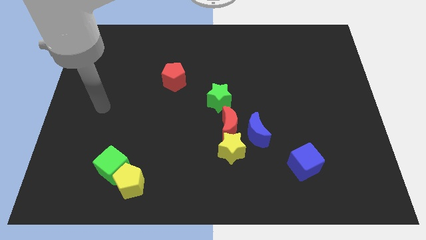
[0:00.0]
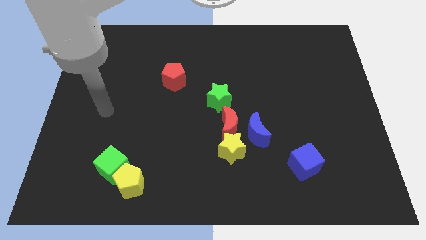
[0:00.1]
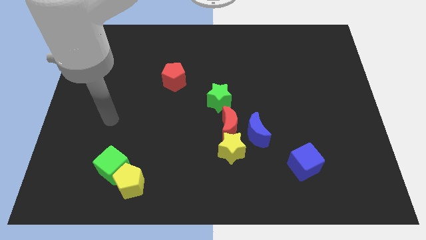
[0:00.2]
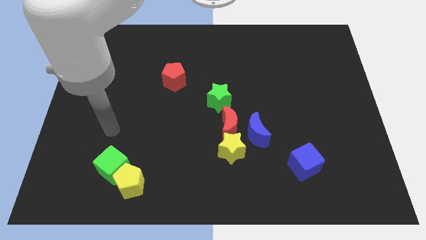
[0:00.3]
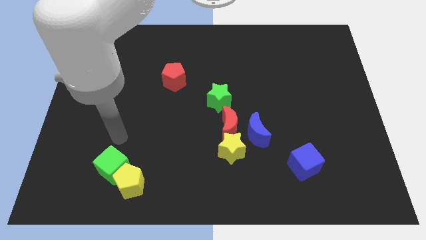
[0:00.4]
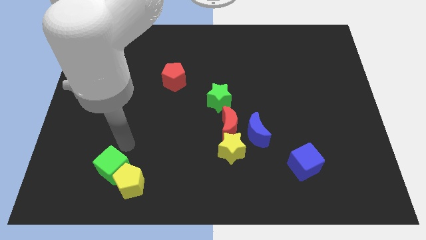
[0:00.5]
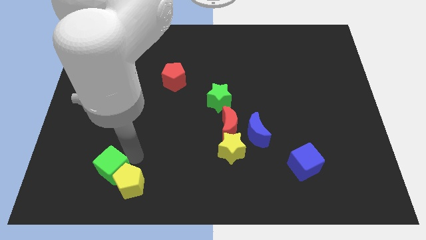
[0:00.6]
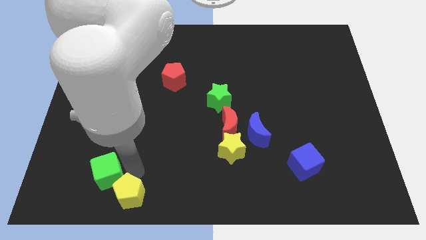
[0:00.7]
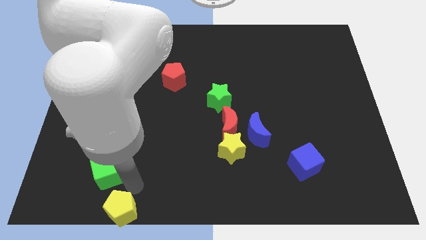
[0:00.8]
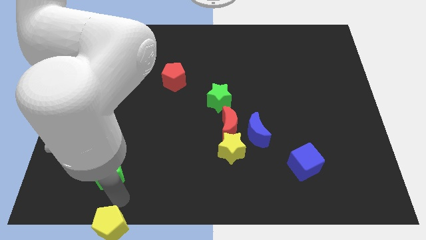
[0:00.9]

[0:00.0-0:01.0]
move the green cube away from the yellow pentagon

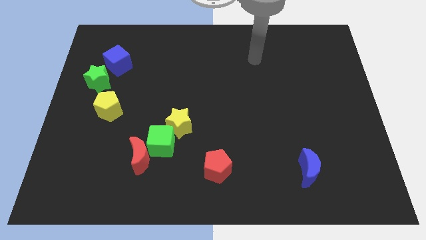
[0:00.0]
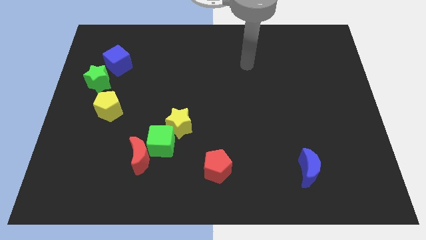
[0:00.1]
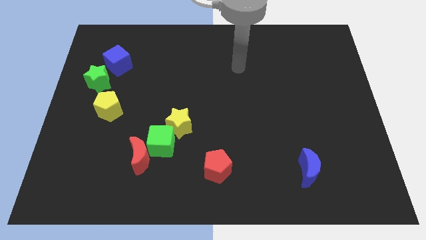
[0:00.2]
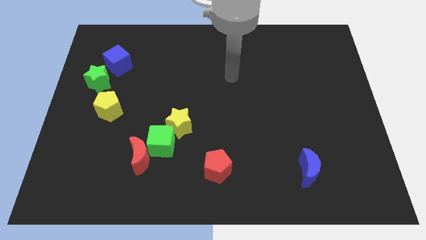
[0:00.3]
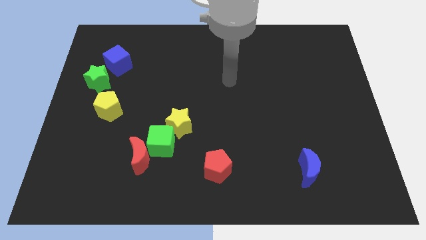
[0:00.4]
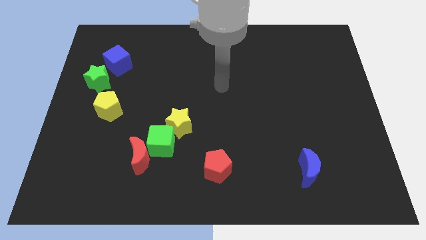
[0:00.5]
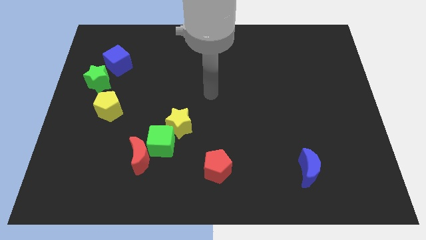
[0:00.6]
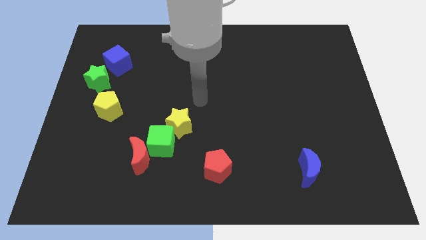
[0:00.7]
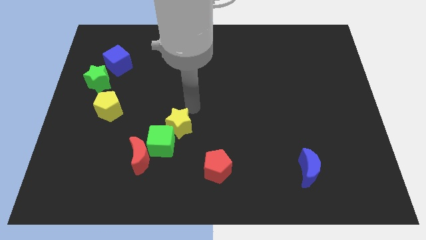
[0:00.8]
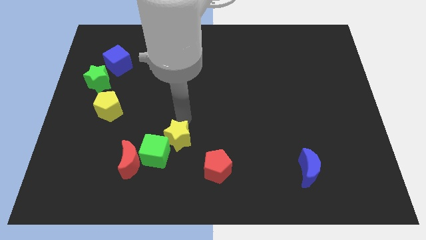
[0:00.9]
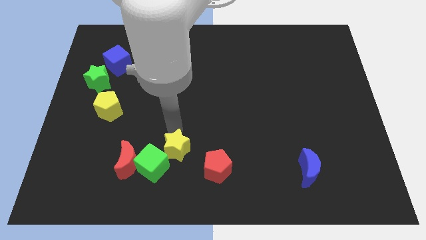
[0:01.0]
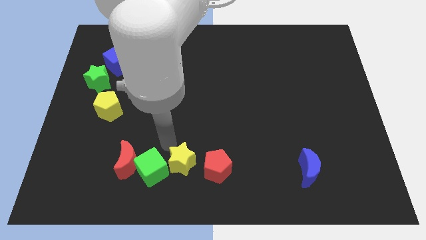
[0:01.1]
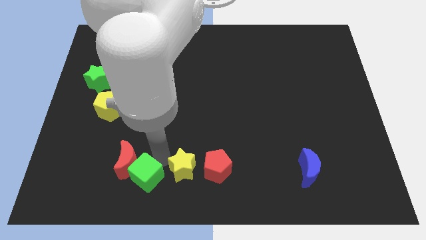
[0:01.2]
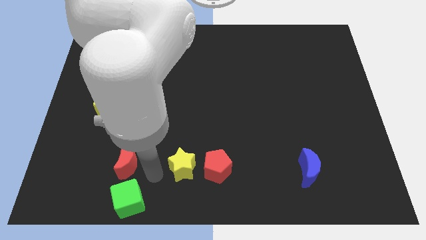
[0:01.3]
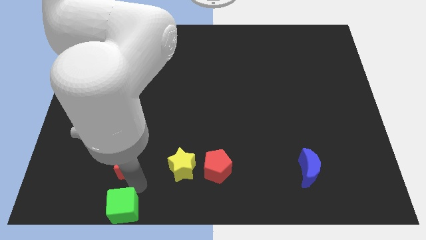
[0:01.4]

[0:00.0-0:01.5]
pull the red moon apart from the green cube

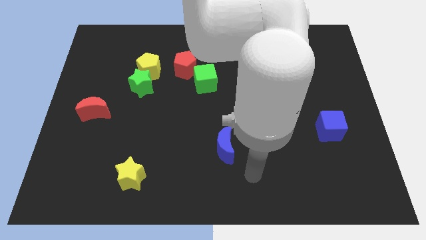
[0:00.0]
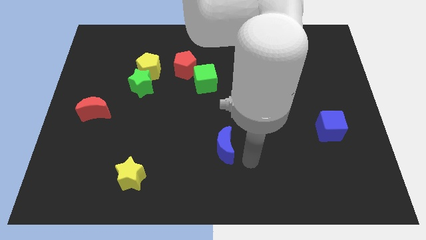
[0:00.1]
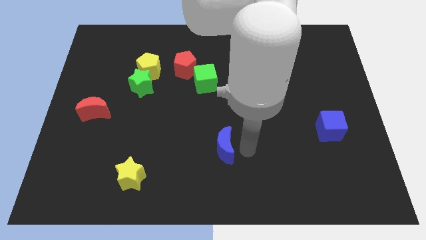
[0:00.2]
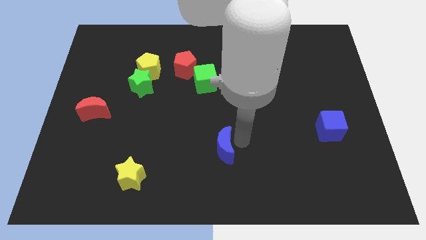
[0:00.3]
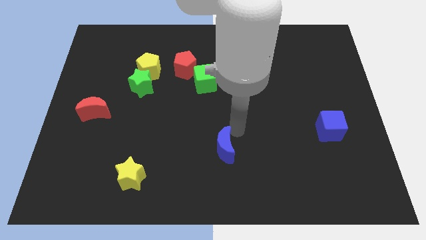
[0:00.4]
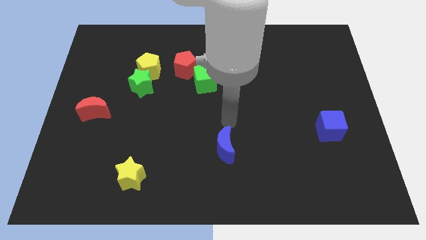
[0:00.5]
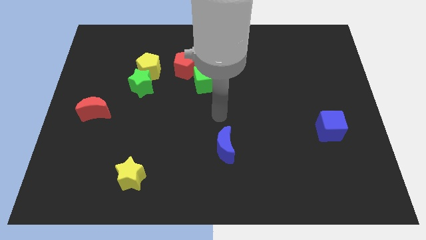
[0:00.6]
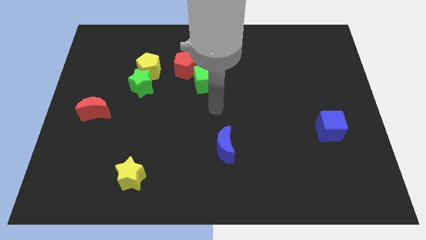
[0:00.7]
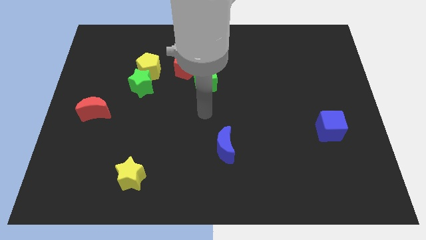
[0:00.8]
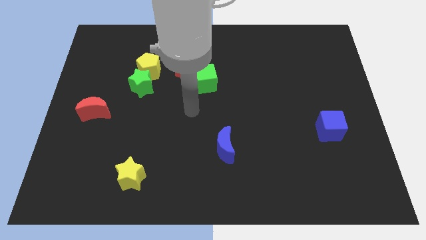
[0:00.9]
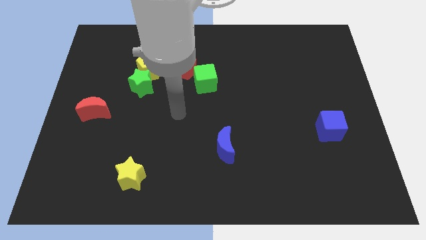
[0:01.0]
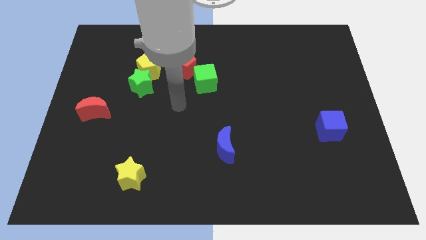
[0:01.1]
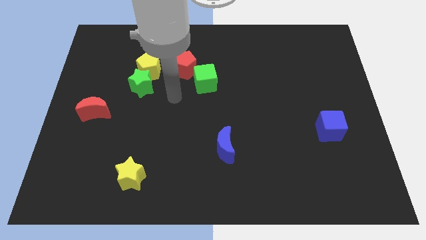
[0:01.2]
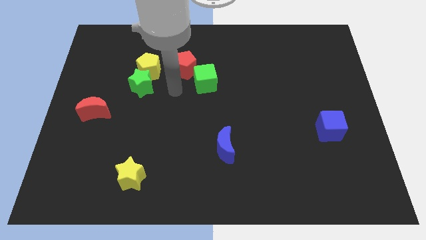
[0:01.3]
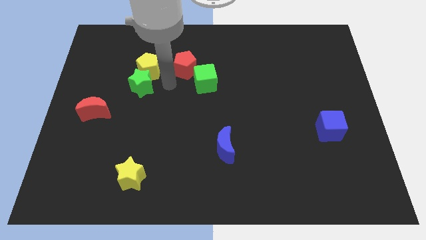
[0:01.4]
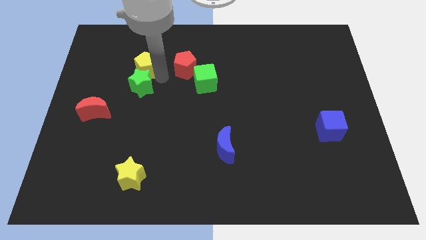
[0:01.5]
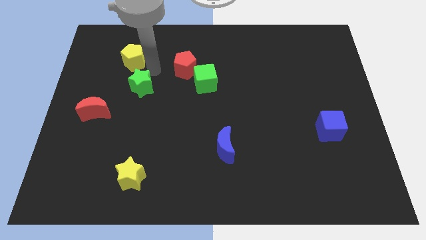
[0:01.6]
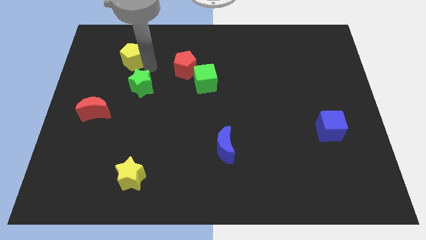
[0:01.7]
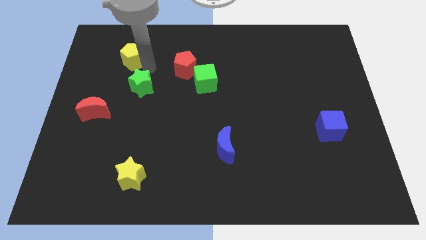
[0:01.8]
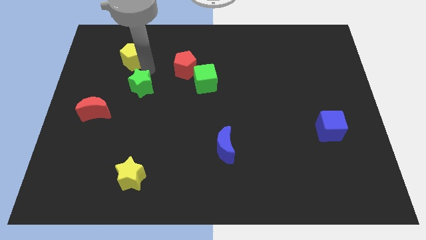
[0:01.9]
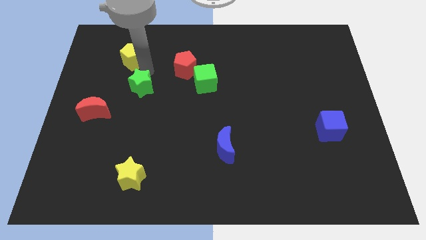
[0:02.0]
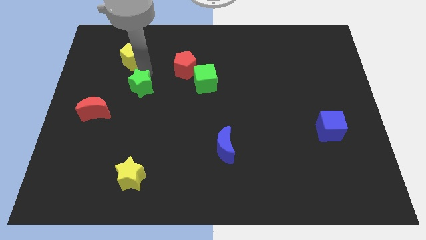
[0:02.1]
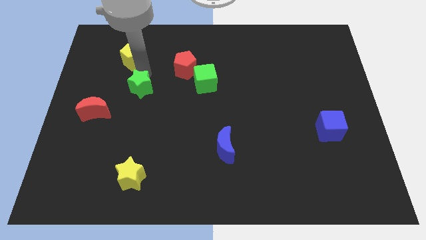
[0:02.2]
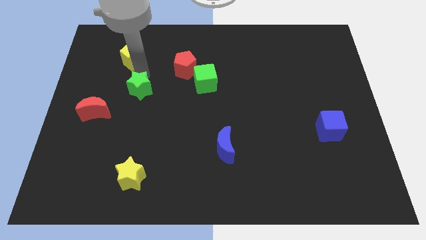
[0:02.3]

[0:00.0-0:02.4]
move the green star away from the yellow pentagon

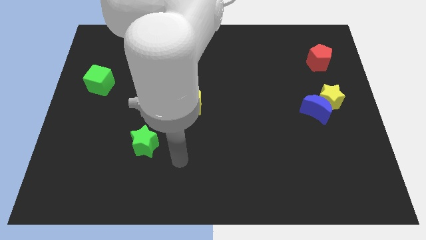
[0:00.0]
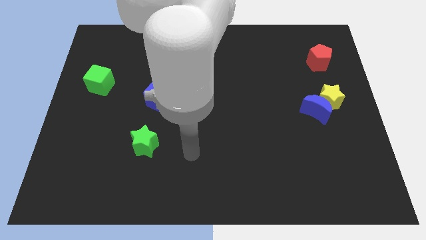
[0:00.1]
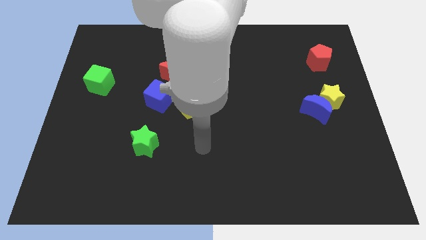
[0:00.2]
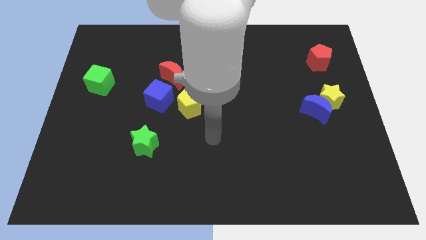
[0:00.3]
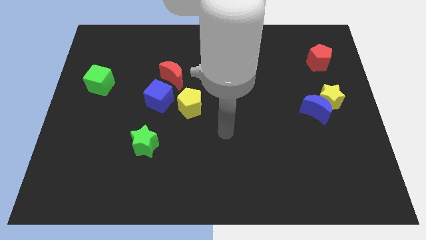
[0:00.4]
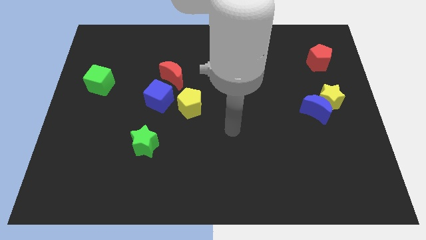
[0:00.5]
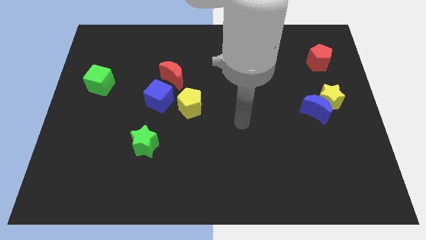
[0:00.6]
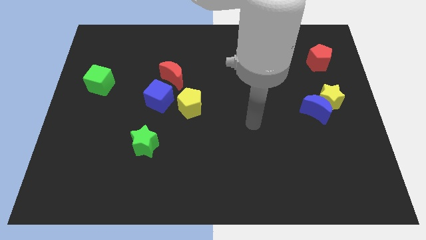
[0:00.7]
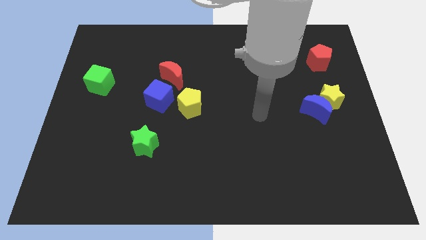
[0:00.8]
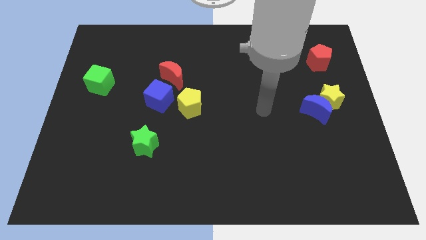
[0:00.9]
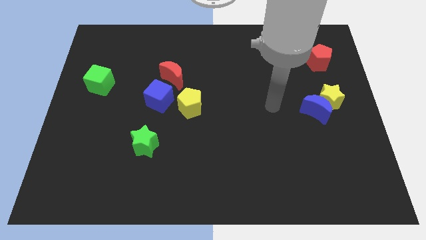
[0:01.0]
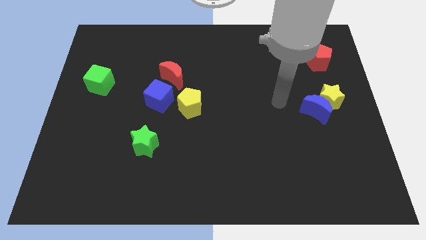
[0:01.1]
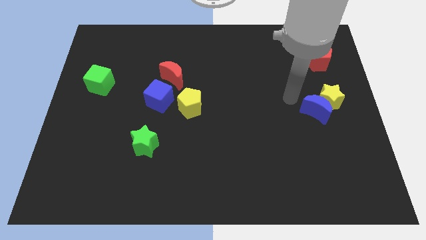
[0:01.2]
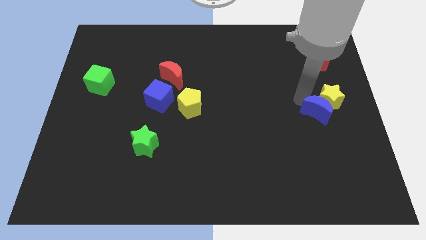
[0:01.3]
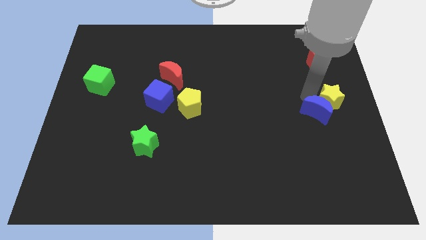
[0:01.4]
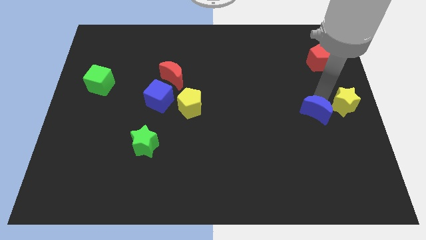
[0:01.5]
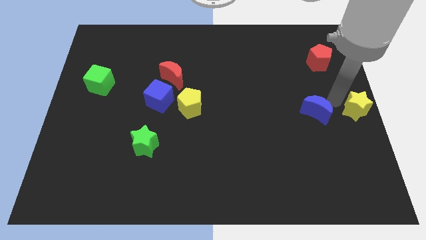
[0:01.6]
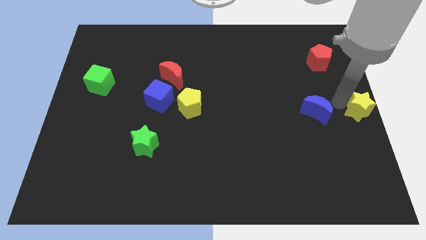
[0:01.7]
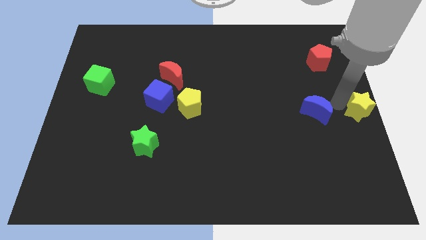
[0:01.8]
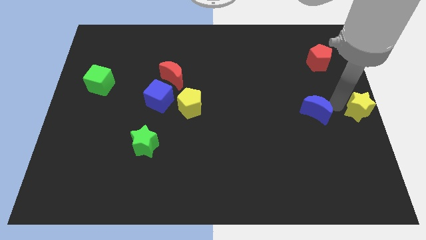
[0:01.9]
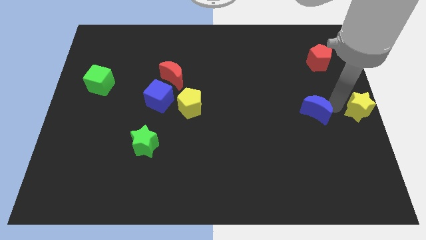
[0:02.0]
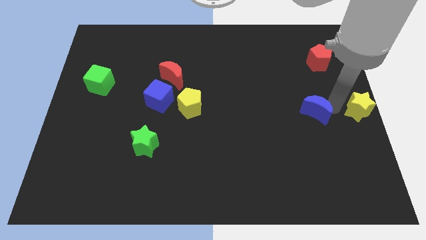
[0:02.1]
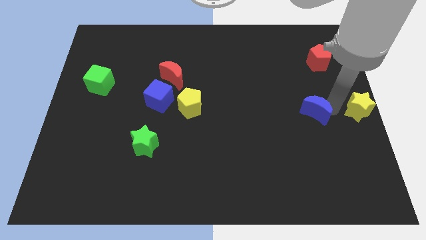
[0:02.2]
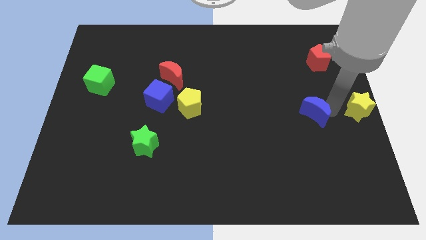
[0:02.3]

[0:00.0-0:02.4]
separate the blue moon from the yellow star

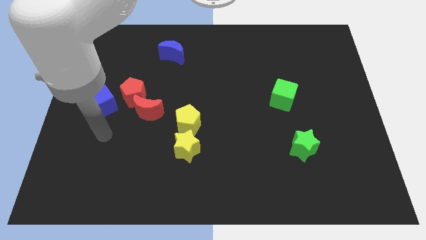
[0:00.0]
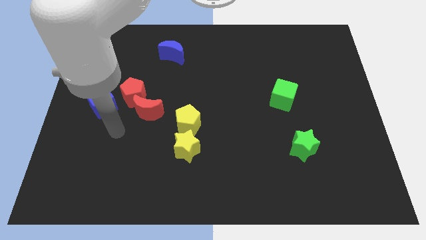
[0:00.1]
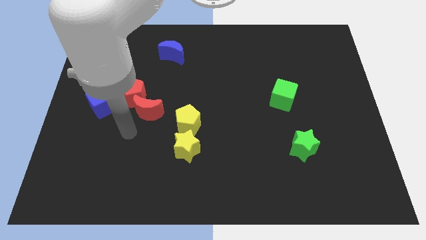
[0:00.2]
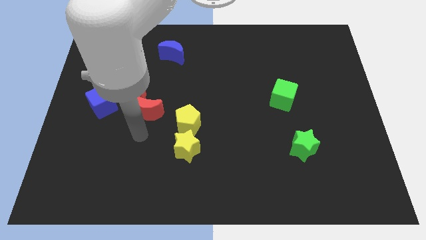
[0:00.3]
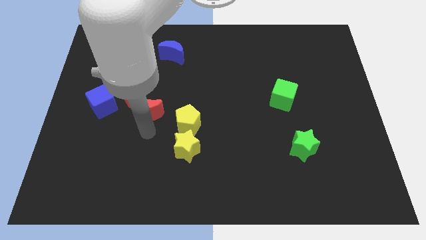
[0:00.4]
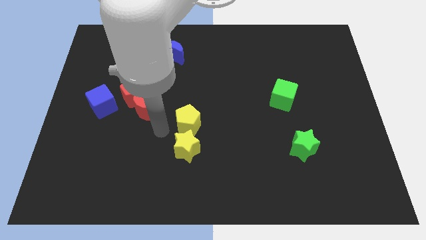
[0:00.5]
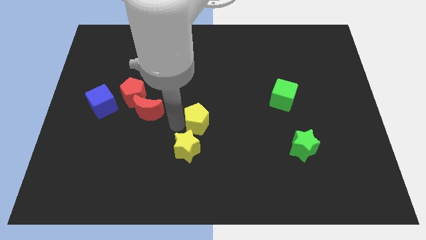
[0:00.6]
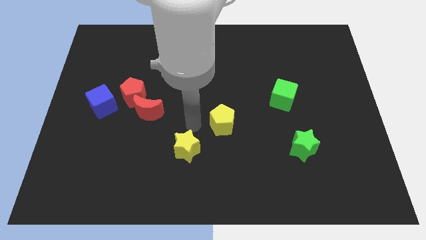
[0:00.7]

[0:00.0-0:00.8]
separate the yellow star from the yellow pentagon

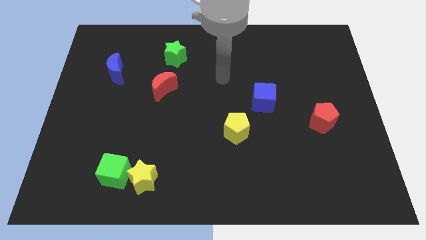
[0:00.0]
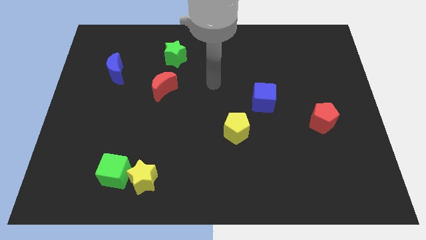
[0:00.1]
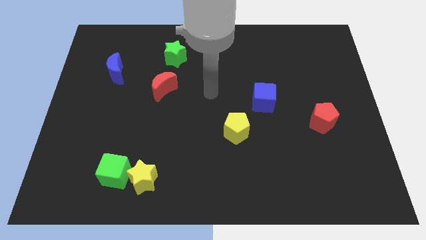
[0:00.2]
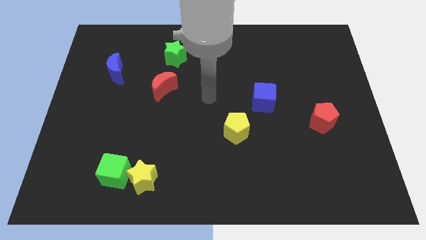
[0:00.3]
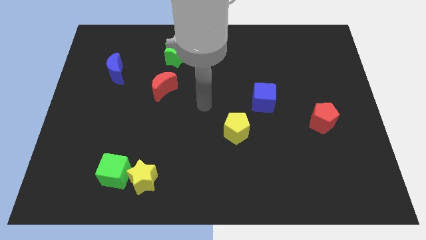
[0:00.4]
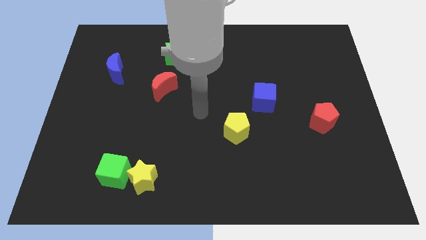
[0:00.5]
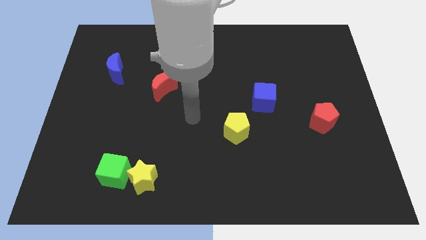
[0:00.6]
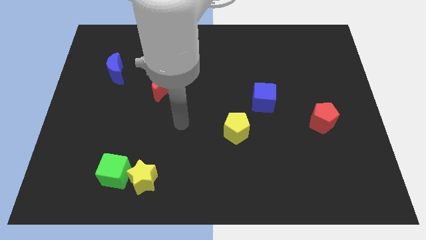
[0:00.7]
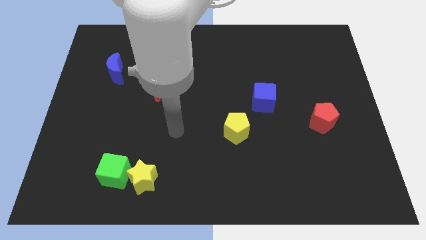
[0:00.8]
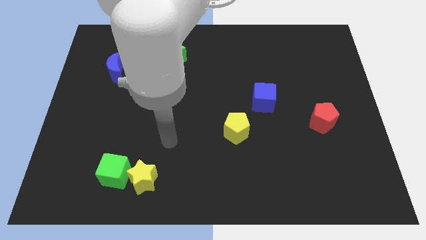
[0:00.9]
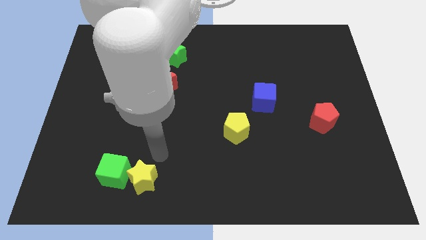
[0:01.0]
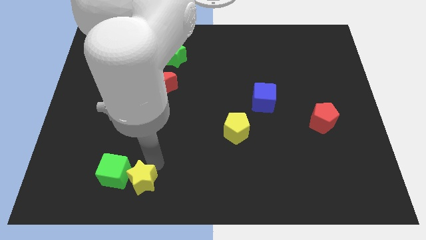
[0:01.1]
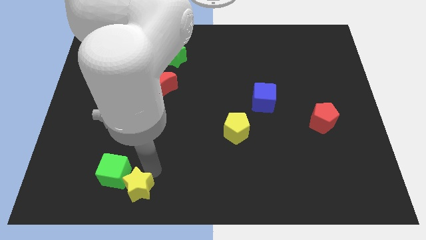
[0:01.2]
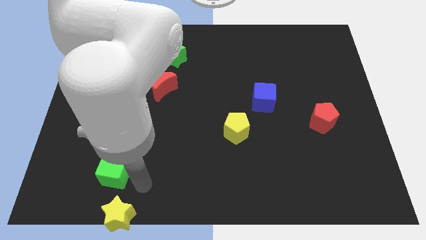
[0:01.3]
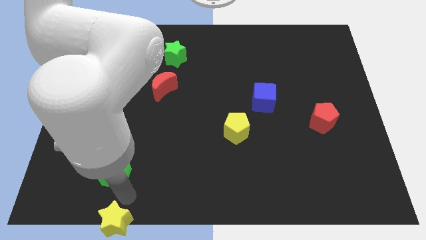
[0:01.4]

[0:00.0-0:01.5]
move the green cube away from the yellow star
